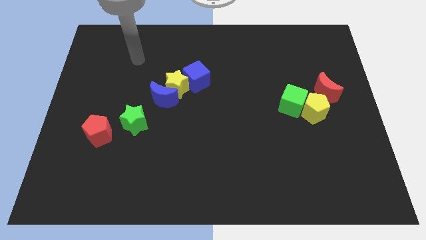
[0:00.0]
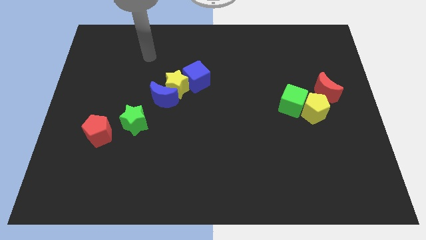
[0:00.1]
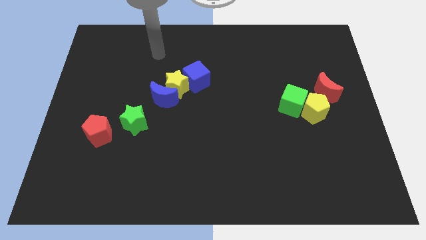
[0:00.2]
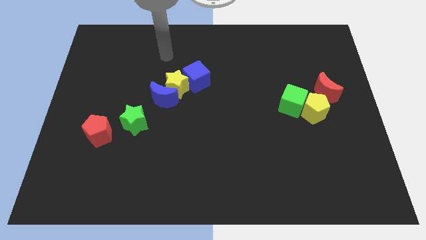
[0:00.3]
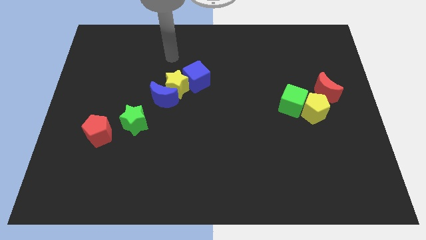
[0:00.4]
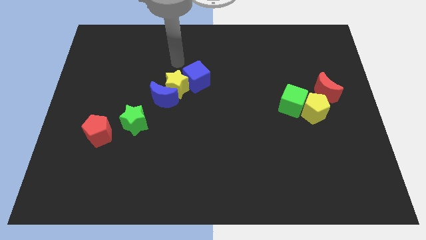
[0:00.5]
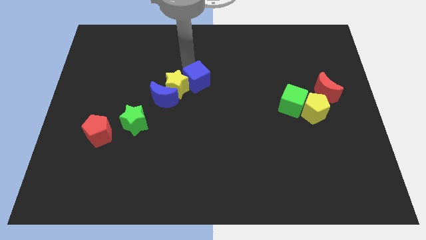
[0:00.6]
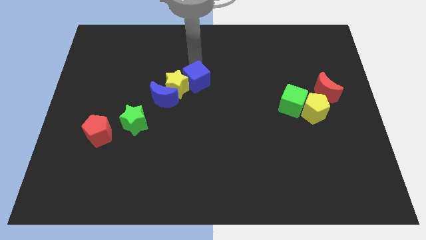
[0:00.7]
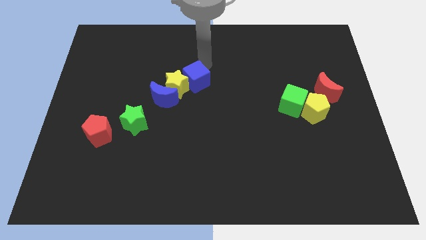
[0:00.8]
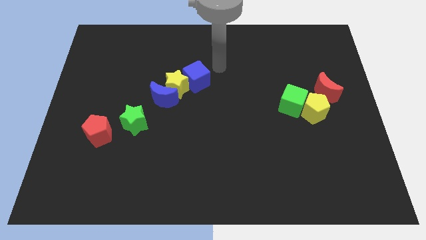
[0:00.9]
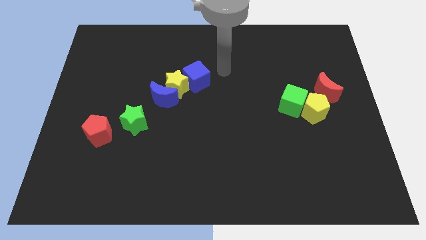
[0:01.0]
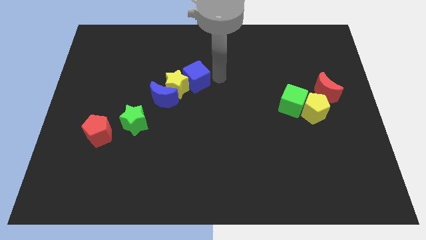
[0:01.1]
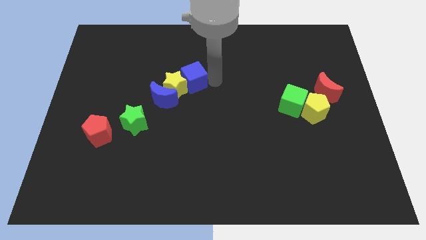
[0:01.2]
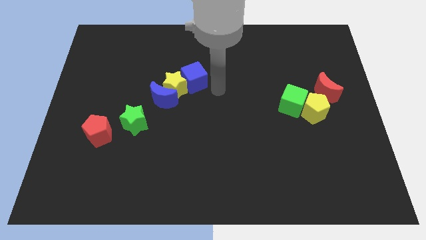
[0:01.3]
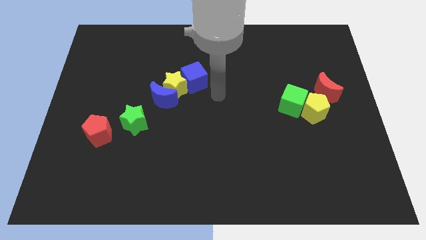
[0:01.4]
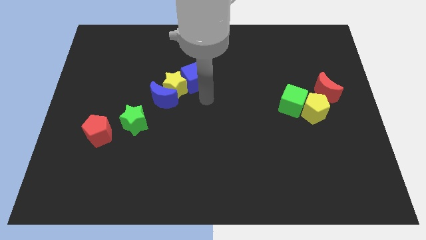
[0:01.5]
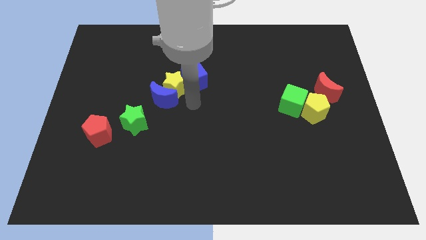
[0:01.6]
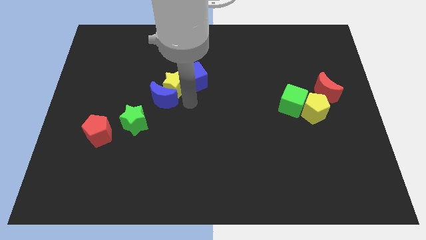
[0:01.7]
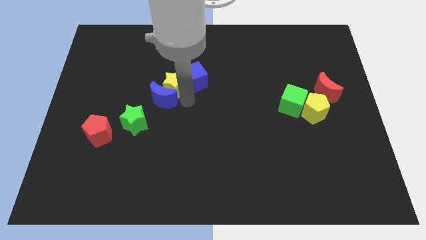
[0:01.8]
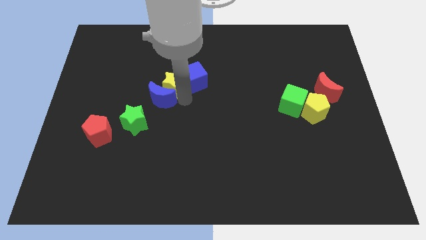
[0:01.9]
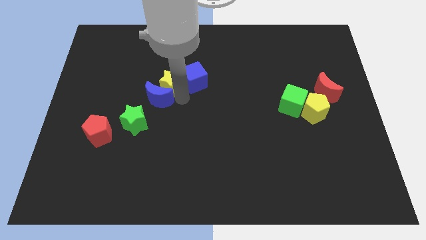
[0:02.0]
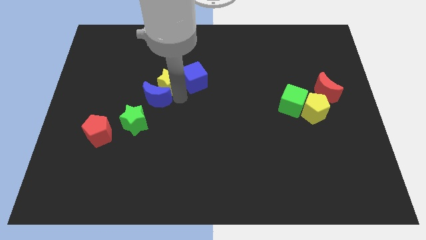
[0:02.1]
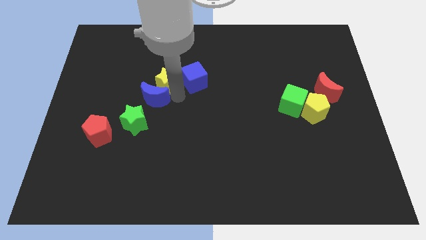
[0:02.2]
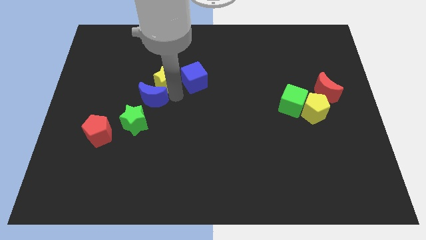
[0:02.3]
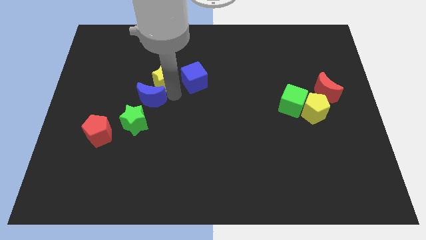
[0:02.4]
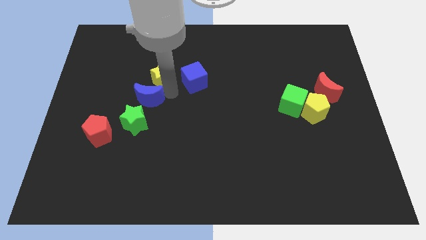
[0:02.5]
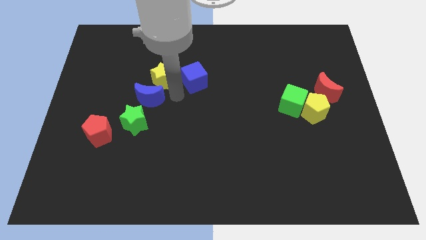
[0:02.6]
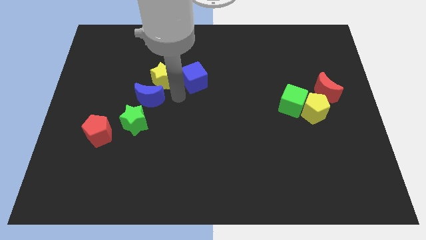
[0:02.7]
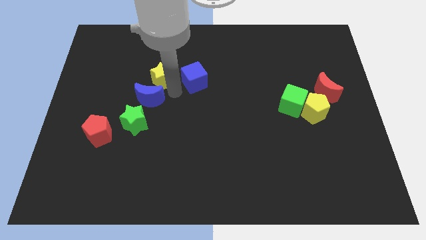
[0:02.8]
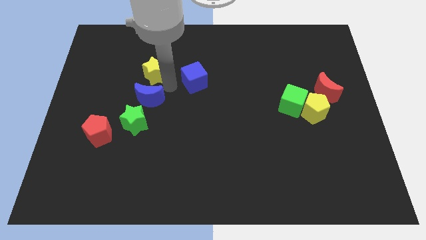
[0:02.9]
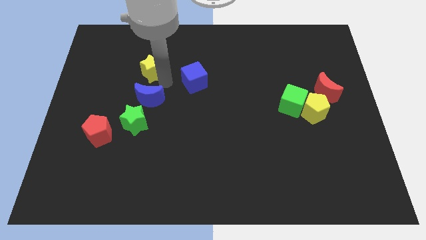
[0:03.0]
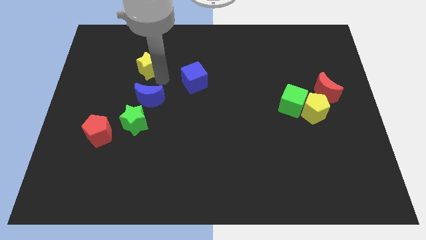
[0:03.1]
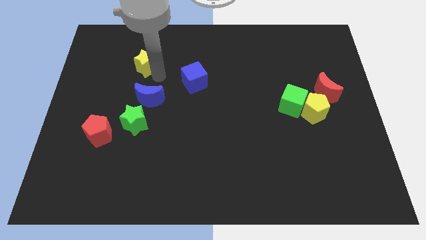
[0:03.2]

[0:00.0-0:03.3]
pull the yellow star apart from the blue moon and blue cube

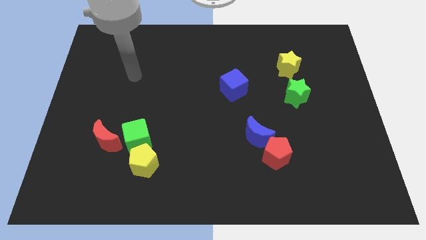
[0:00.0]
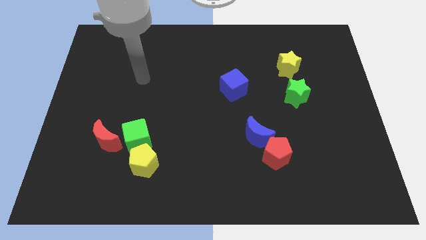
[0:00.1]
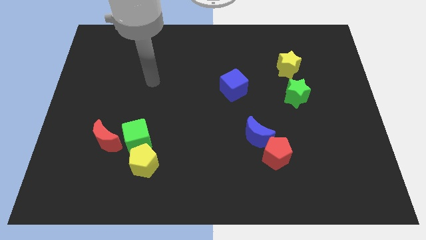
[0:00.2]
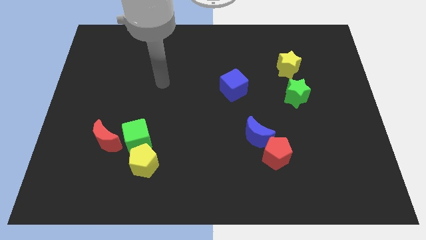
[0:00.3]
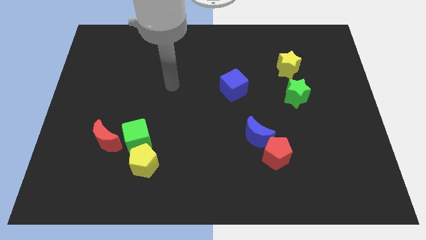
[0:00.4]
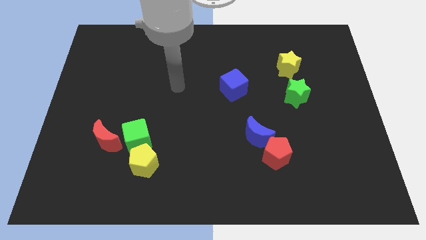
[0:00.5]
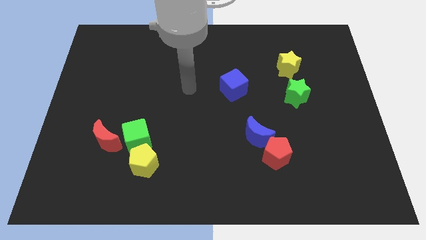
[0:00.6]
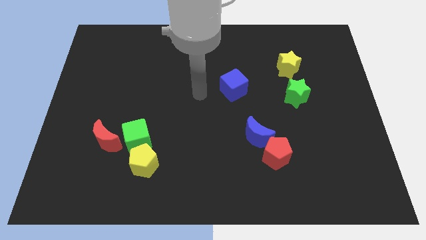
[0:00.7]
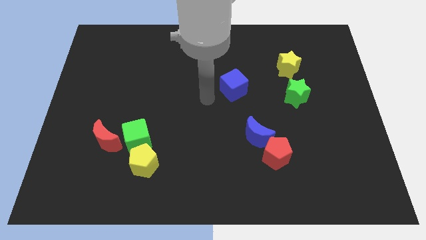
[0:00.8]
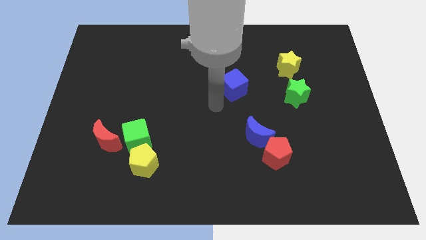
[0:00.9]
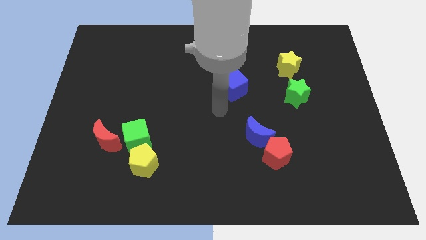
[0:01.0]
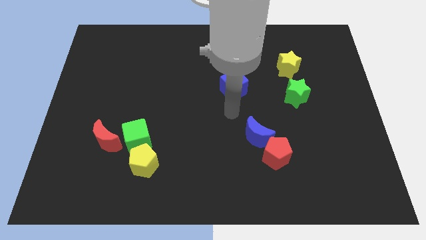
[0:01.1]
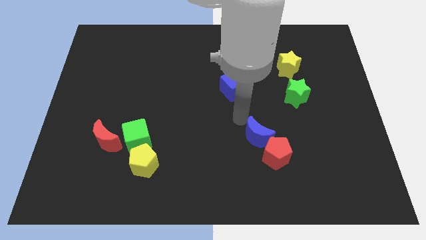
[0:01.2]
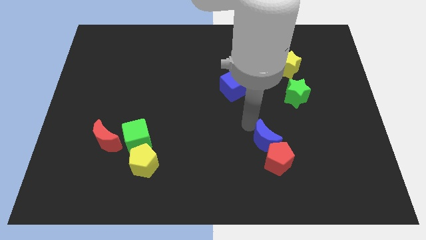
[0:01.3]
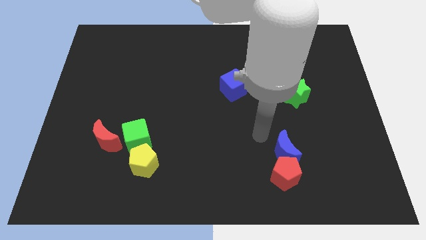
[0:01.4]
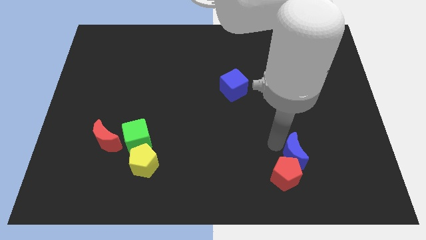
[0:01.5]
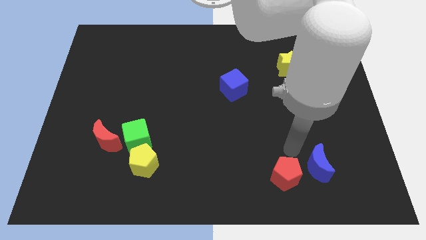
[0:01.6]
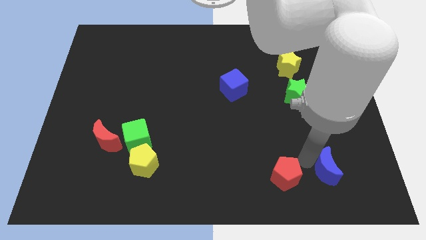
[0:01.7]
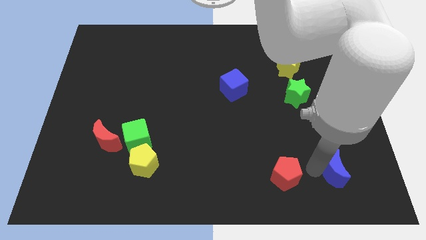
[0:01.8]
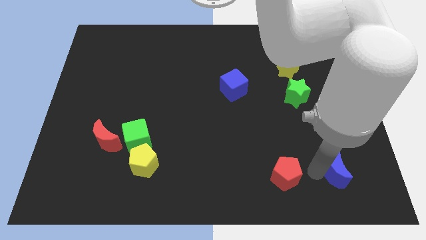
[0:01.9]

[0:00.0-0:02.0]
separate the red pentagon from the blue moon

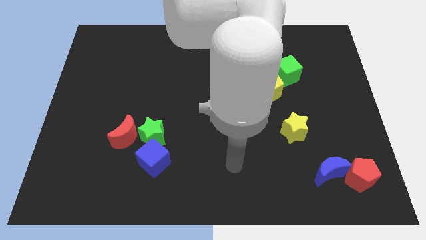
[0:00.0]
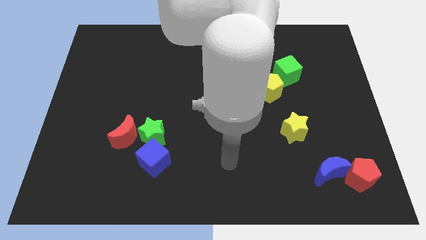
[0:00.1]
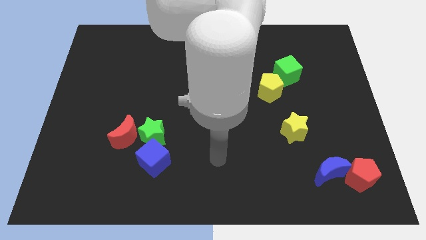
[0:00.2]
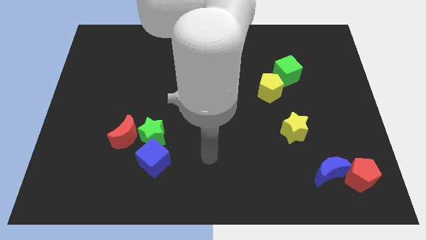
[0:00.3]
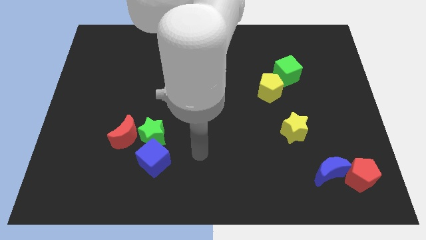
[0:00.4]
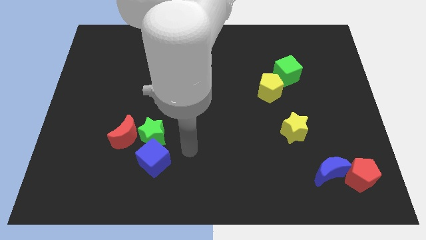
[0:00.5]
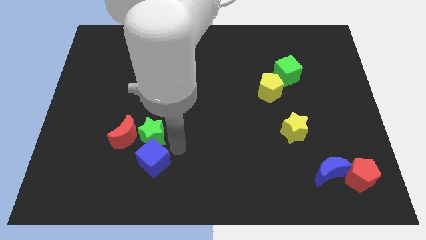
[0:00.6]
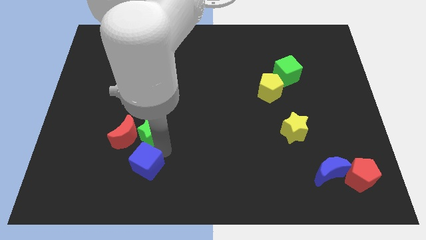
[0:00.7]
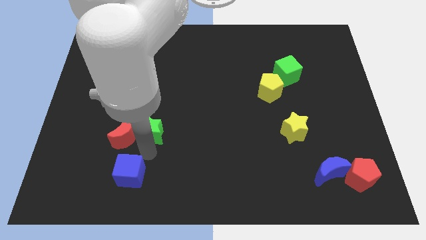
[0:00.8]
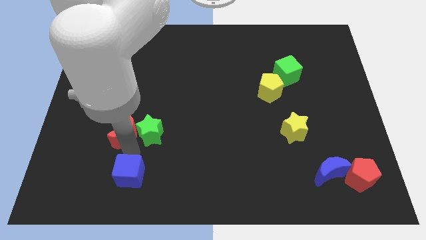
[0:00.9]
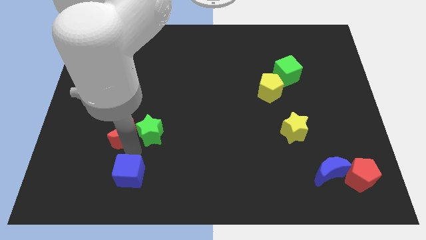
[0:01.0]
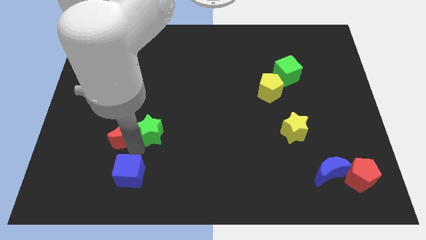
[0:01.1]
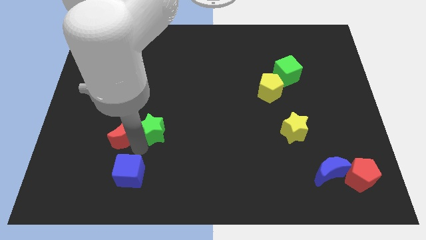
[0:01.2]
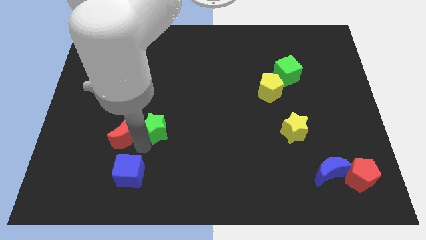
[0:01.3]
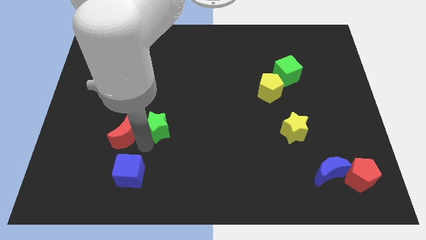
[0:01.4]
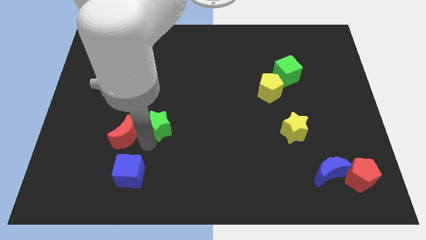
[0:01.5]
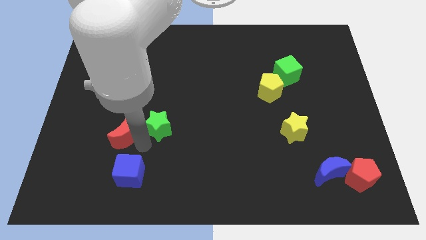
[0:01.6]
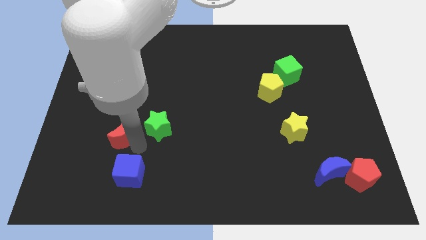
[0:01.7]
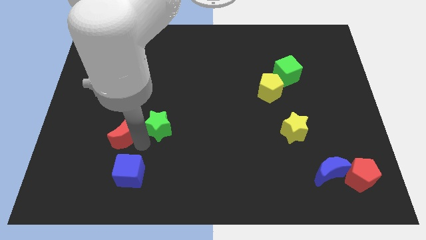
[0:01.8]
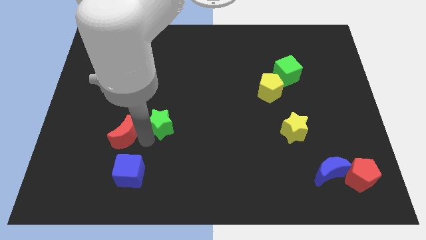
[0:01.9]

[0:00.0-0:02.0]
move the green star away from the red moon and blue cube

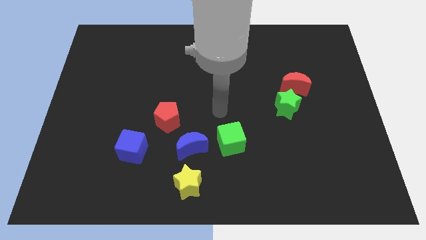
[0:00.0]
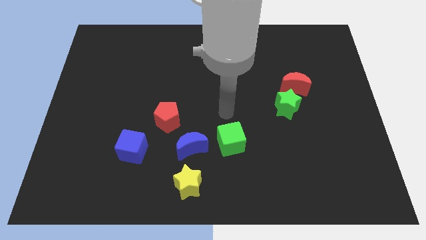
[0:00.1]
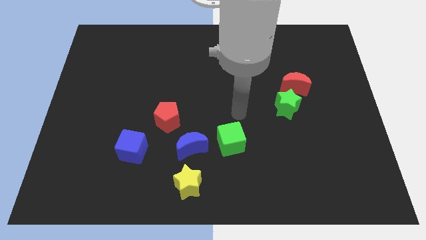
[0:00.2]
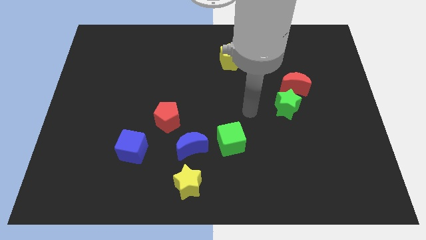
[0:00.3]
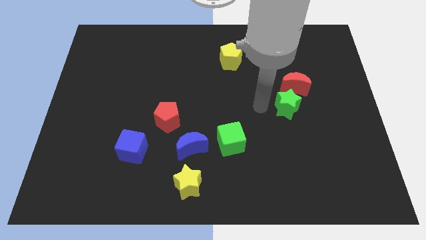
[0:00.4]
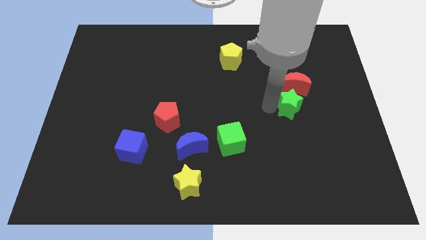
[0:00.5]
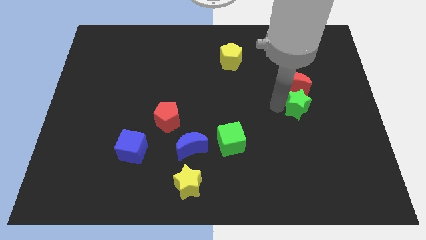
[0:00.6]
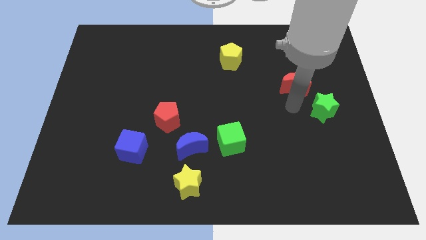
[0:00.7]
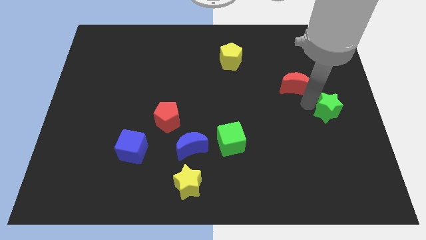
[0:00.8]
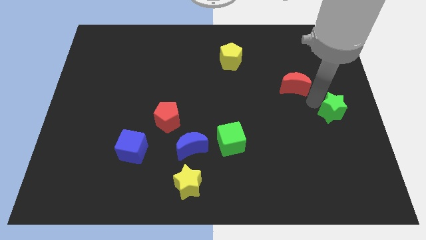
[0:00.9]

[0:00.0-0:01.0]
move the red moon away from the green star

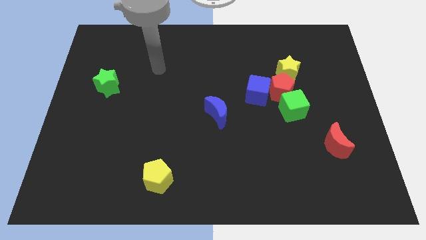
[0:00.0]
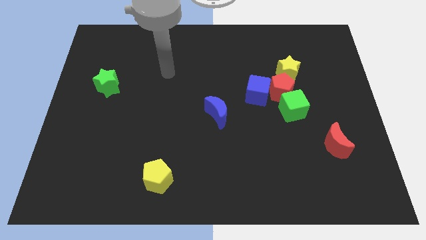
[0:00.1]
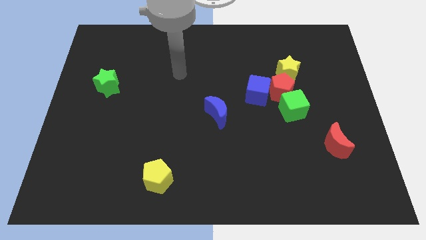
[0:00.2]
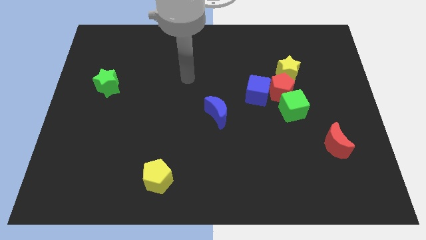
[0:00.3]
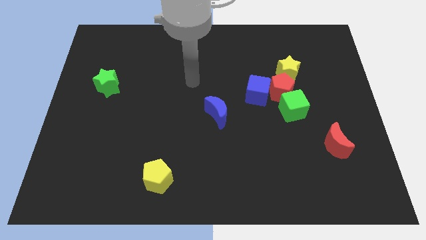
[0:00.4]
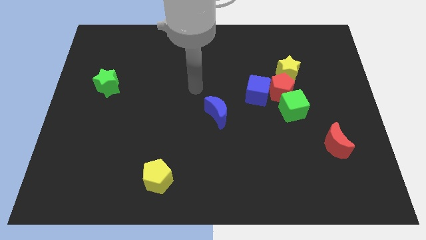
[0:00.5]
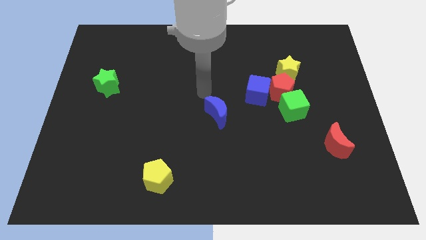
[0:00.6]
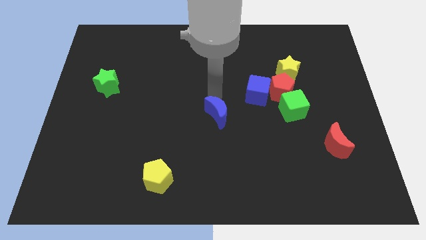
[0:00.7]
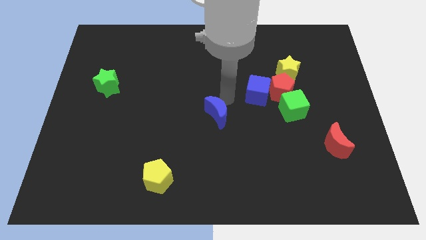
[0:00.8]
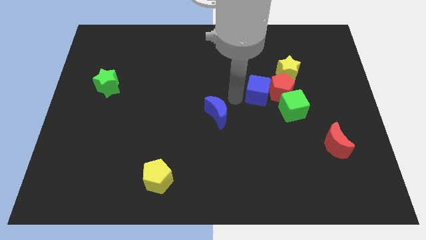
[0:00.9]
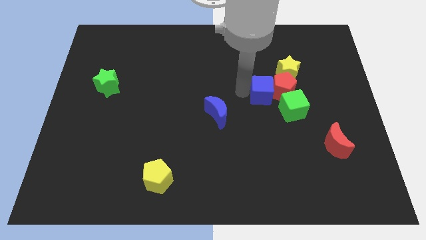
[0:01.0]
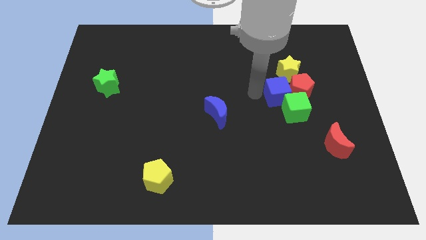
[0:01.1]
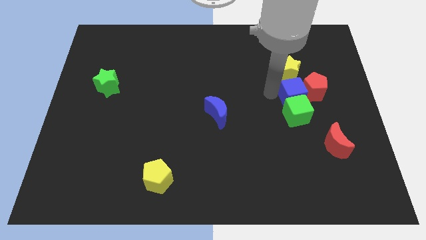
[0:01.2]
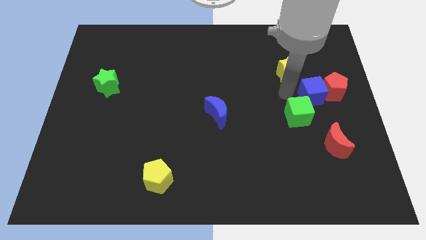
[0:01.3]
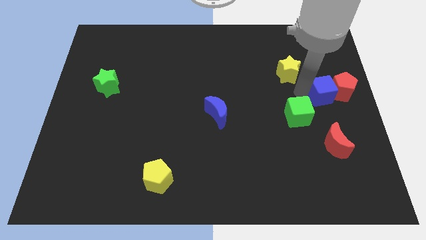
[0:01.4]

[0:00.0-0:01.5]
move the red pentagon away from the group
